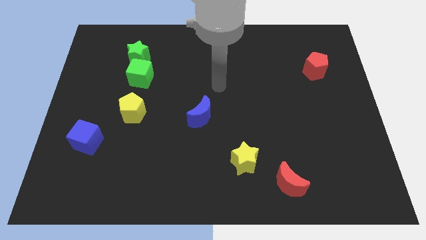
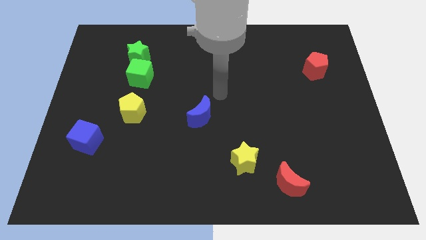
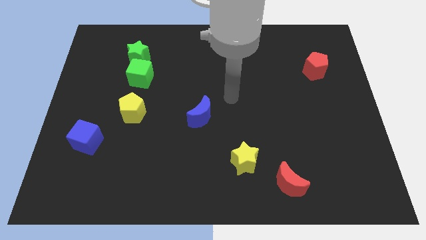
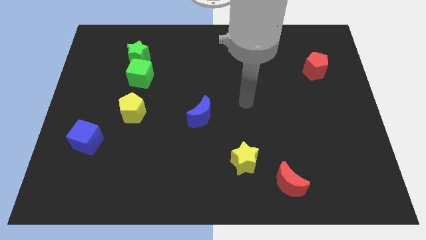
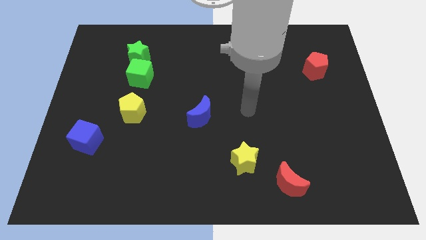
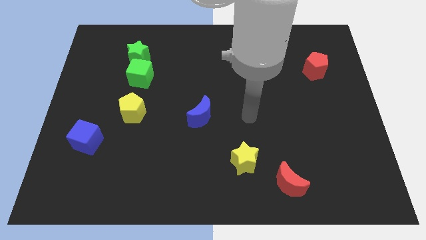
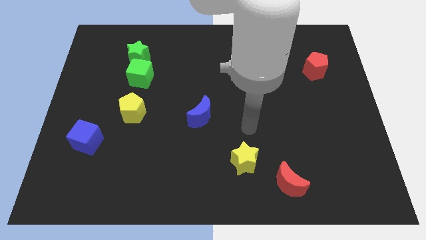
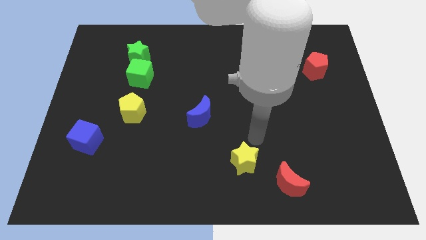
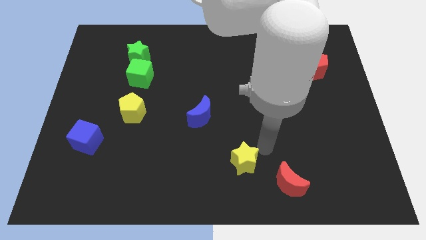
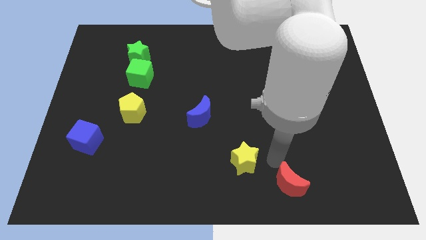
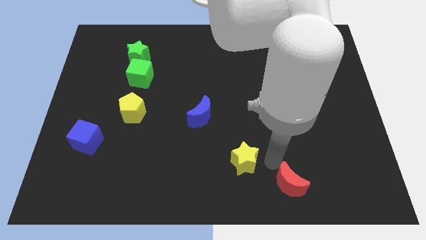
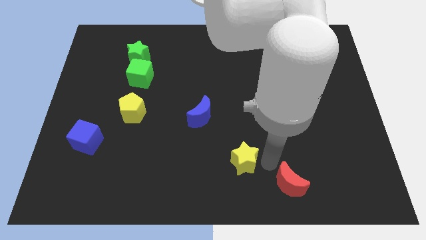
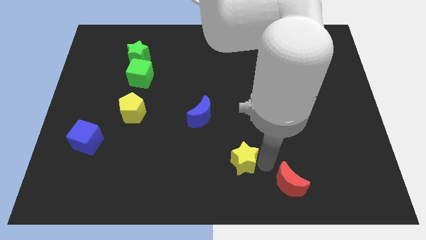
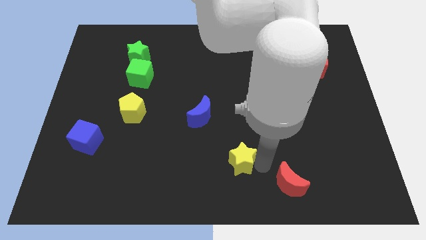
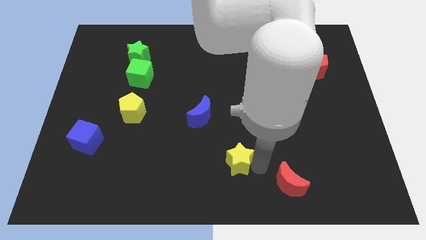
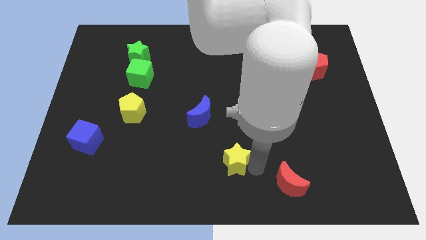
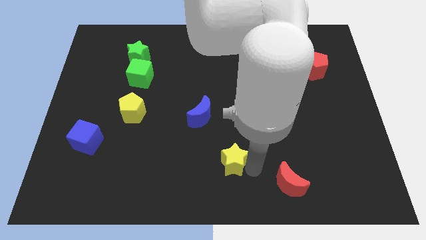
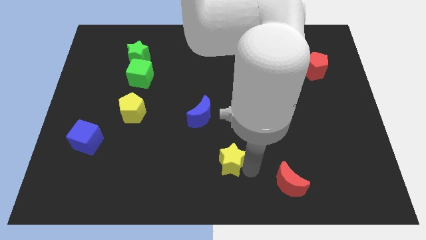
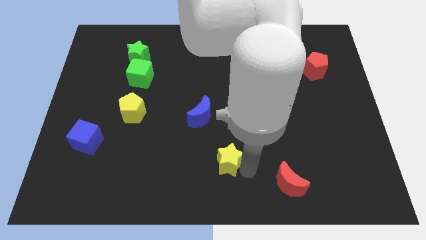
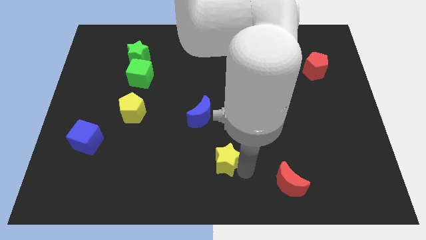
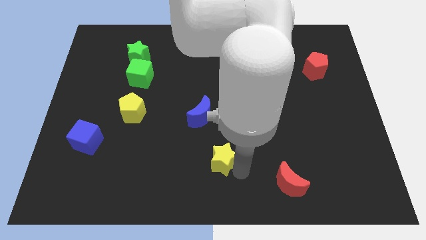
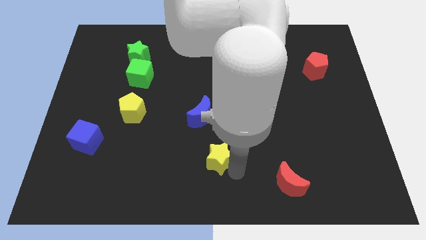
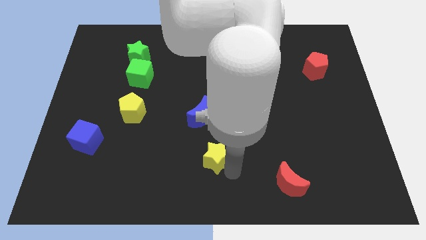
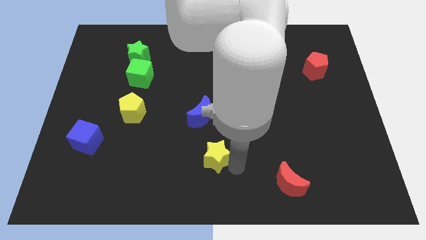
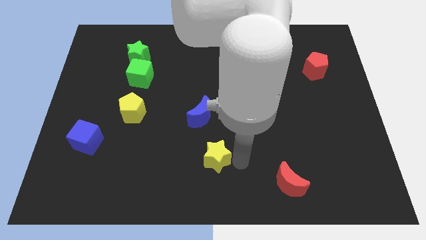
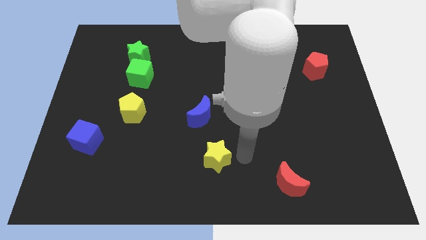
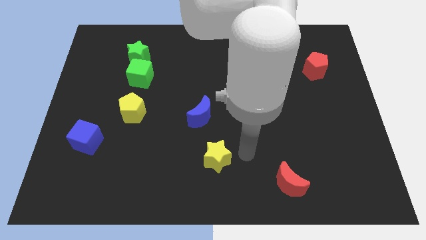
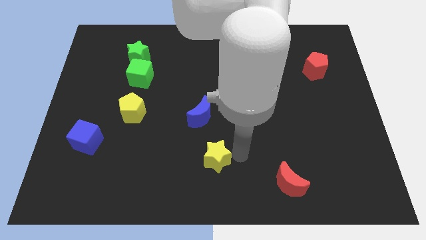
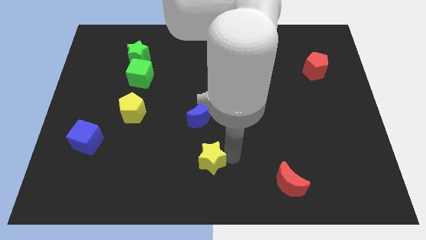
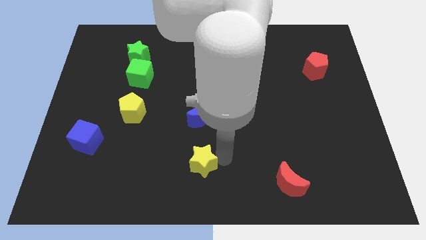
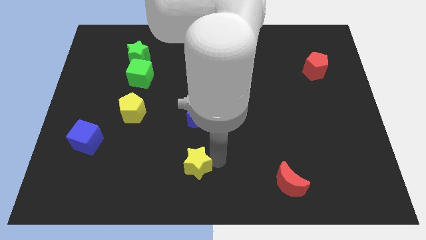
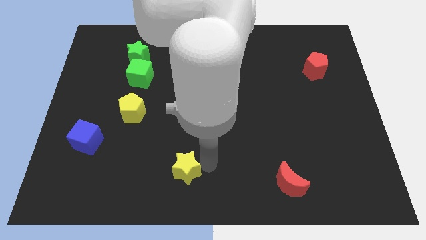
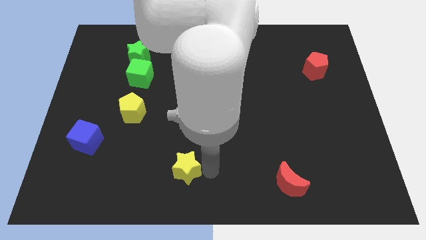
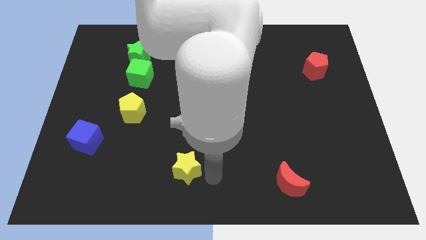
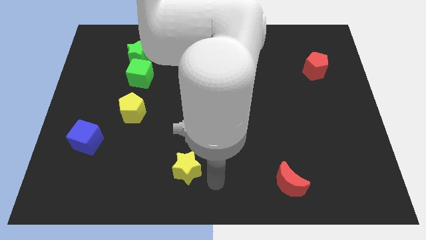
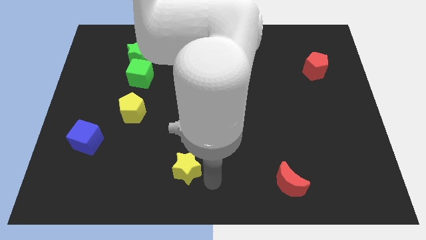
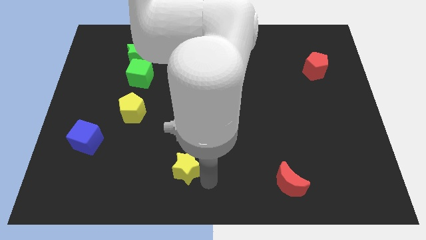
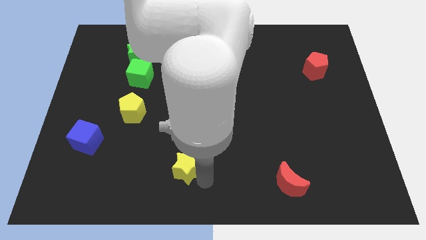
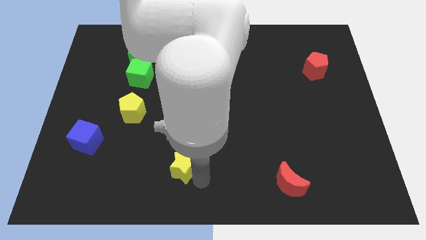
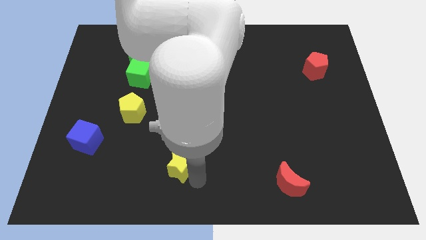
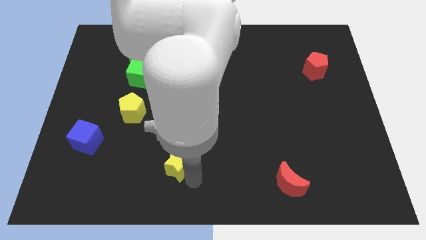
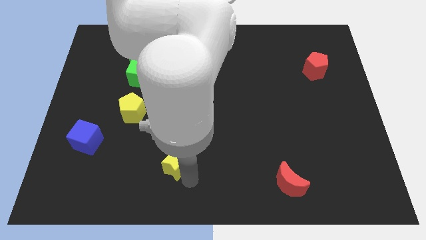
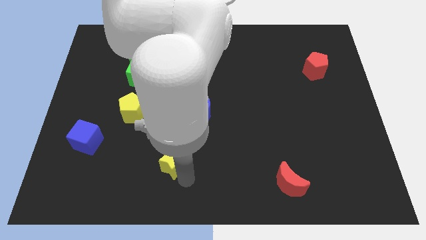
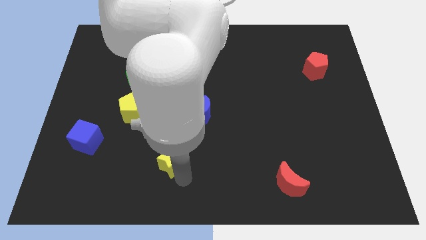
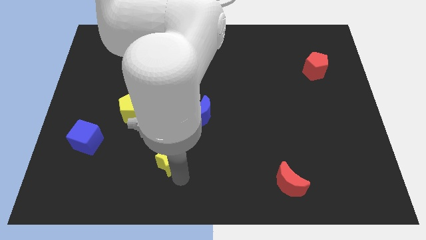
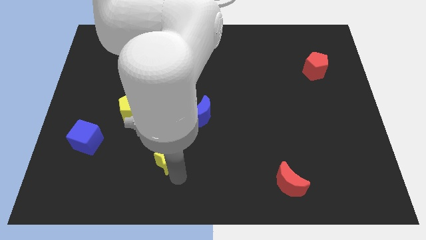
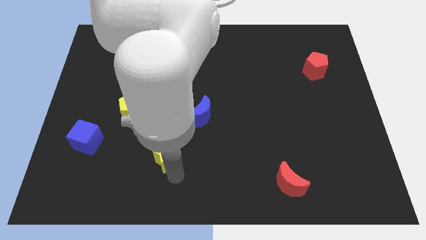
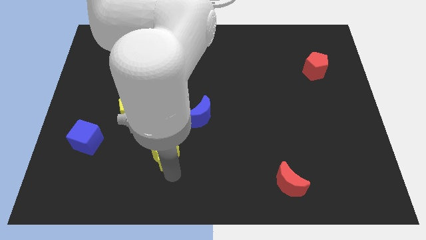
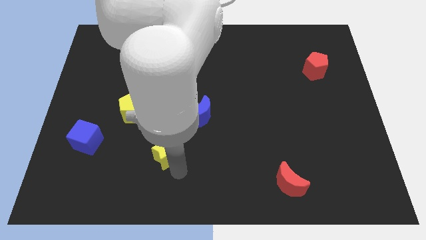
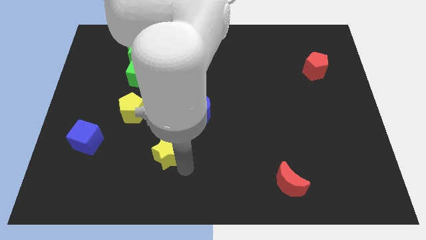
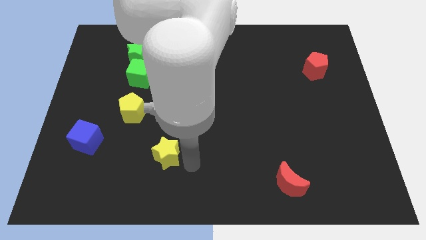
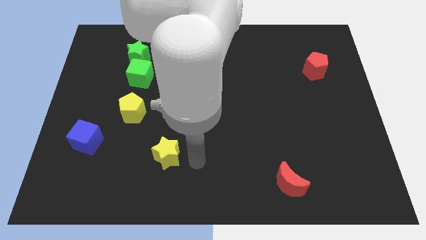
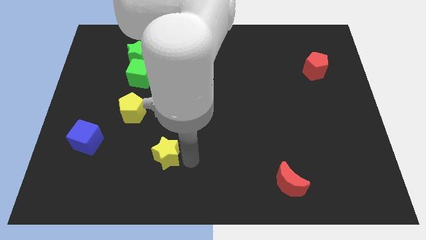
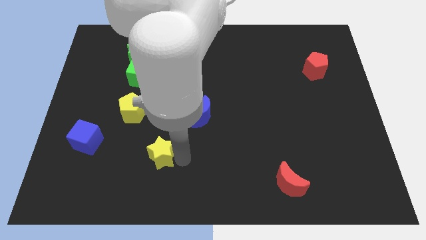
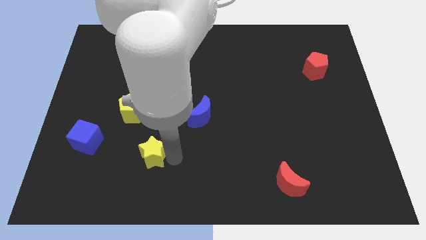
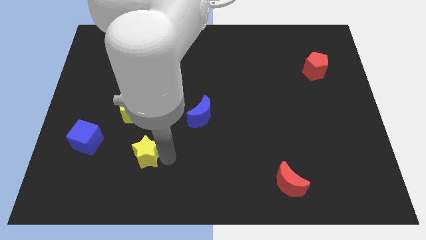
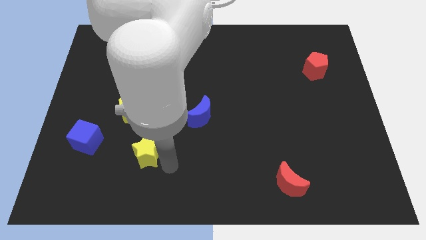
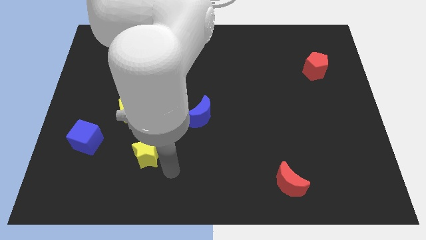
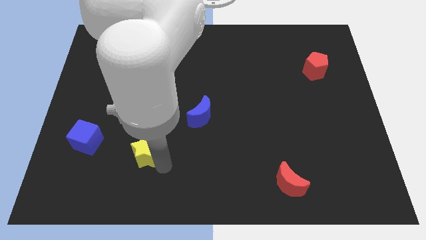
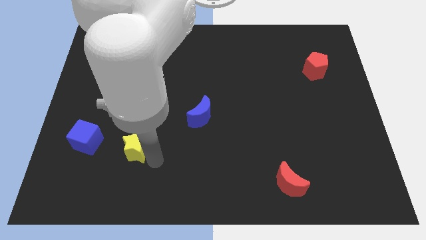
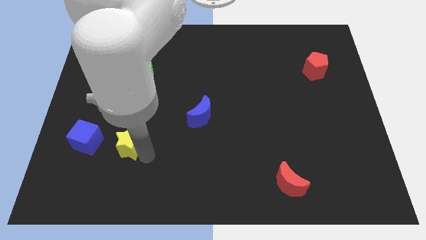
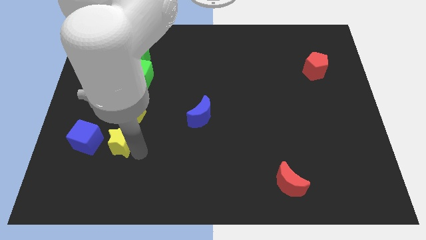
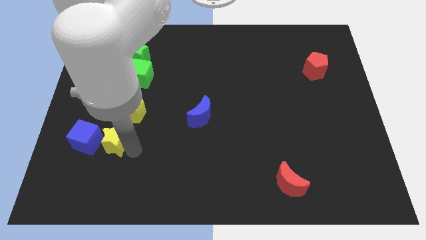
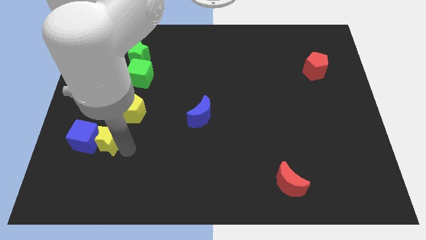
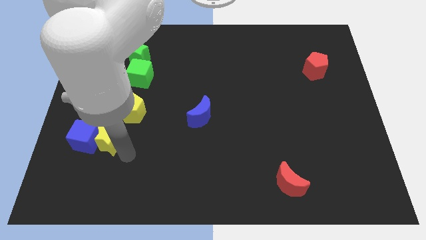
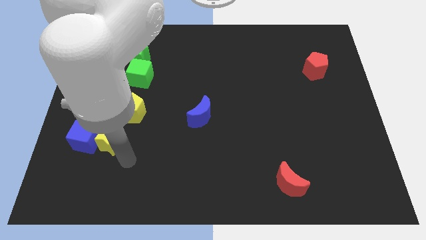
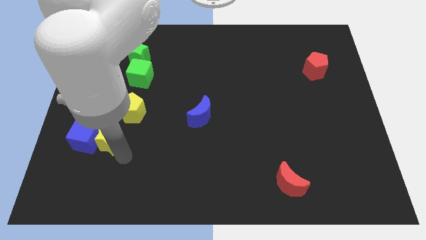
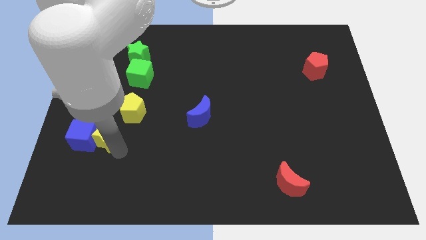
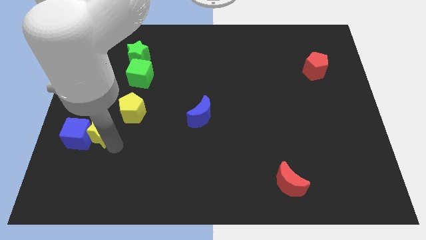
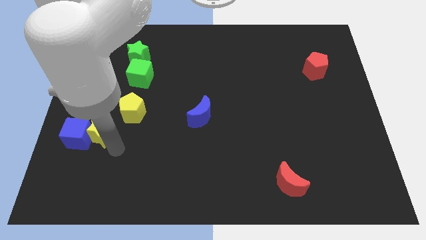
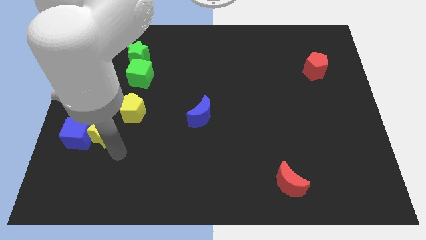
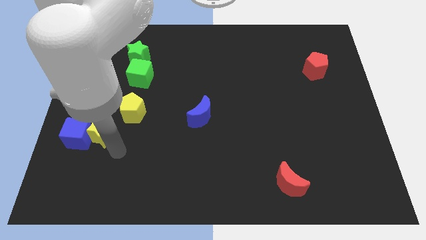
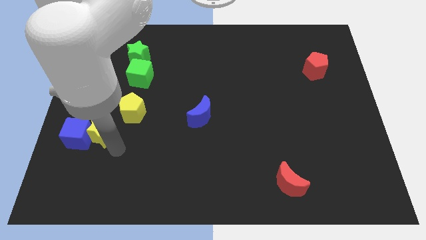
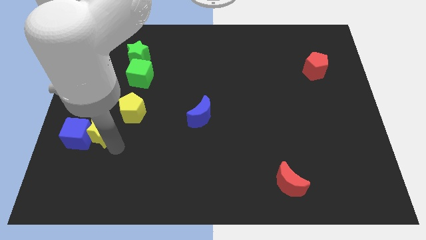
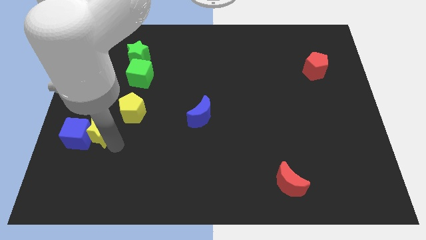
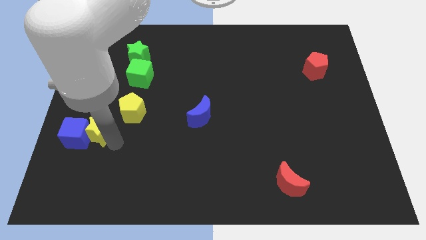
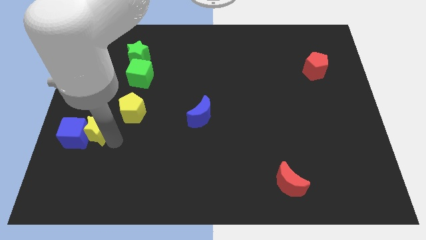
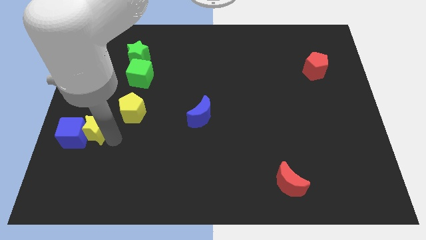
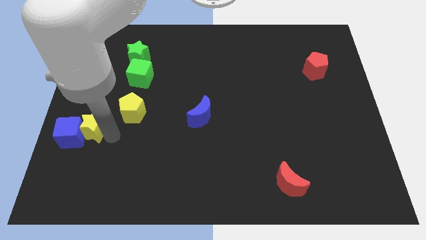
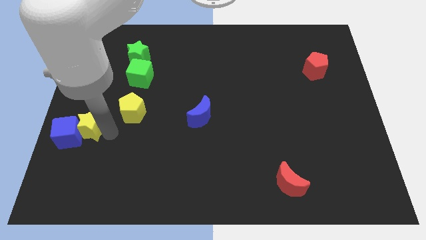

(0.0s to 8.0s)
push the yellow star to the left side of the board
